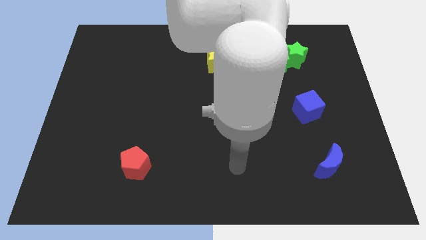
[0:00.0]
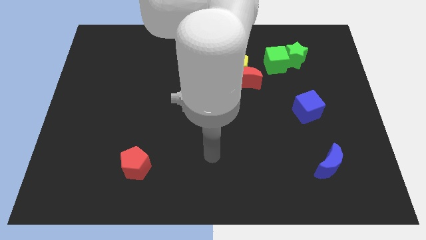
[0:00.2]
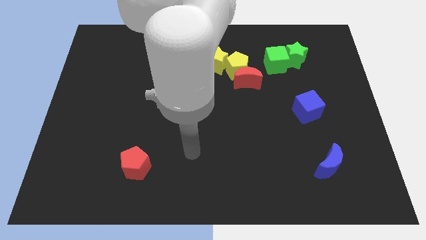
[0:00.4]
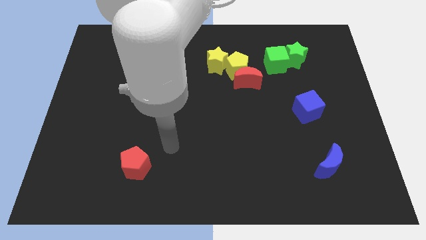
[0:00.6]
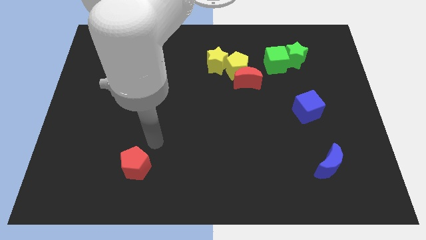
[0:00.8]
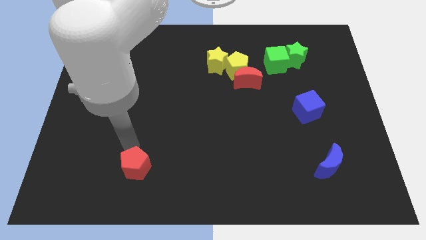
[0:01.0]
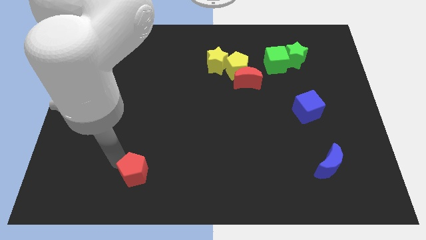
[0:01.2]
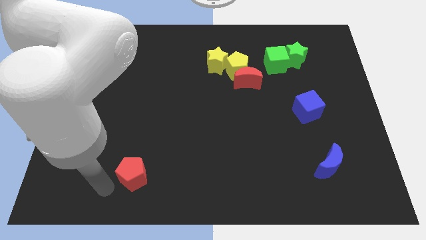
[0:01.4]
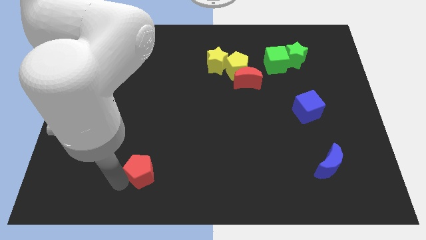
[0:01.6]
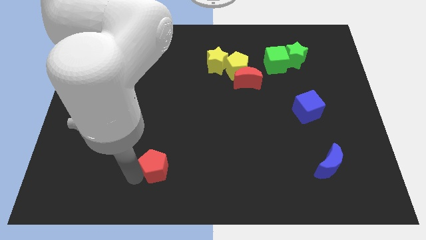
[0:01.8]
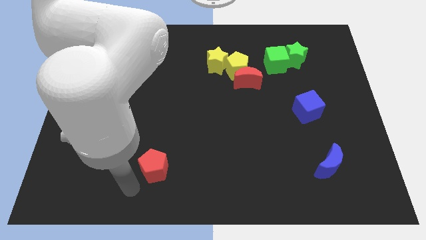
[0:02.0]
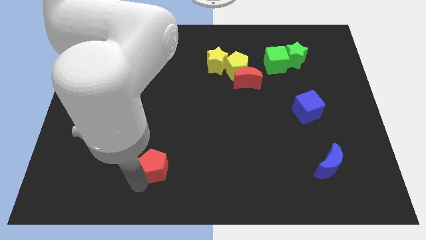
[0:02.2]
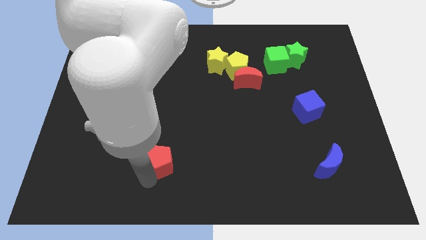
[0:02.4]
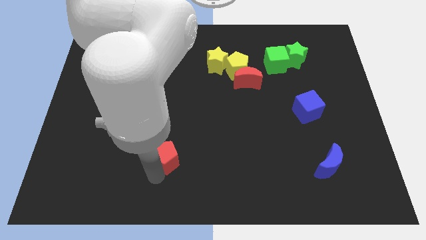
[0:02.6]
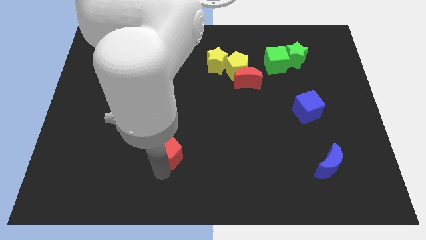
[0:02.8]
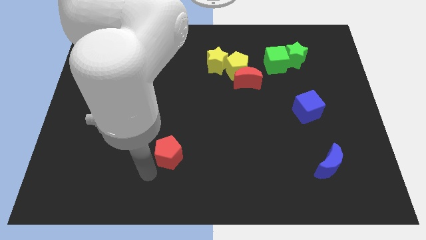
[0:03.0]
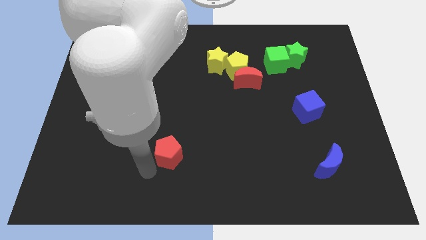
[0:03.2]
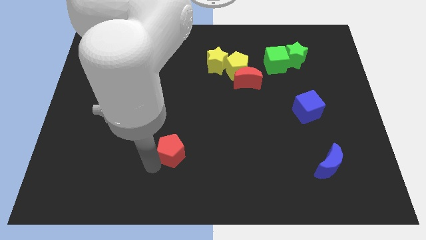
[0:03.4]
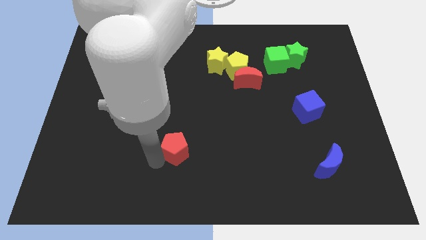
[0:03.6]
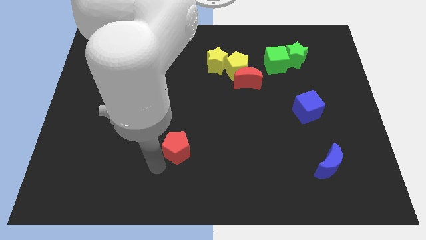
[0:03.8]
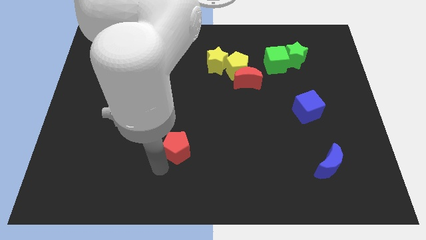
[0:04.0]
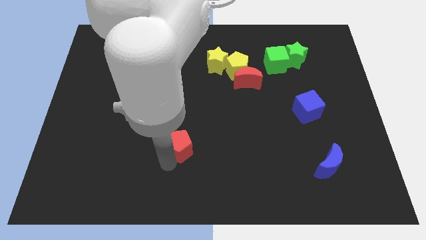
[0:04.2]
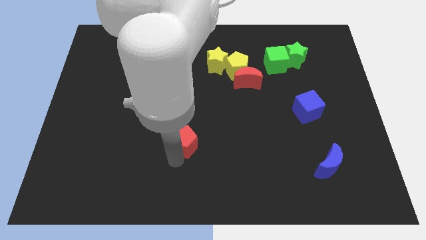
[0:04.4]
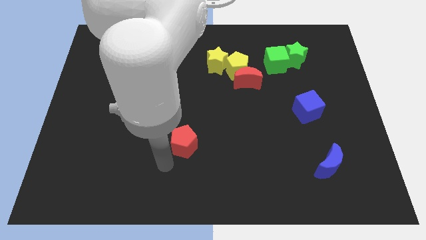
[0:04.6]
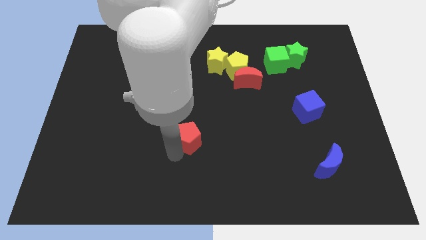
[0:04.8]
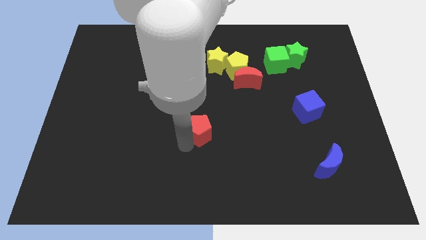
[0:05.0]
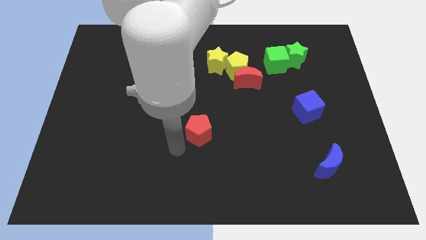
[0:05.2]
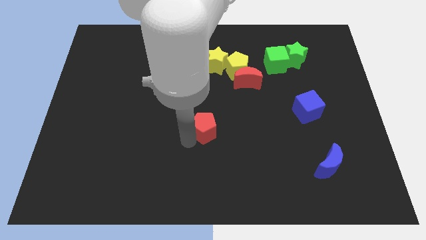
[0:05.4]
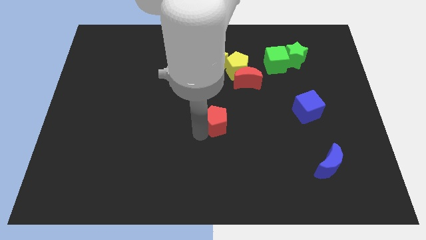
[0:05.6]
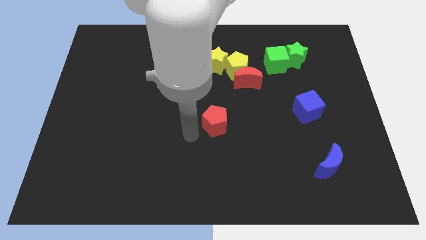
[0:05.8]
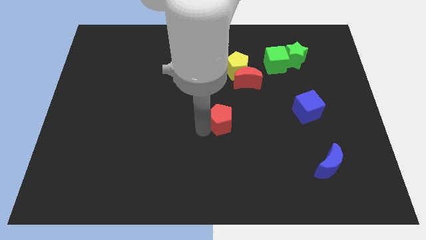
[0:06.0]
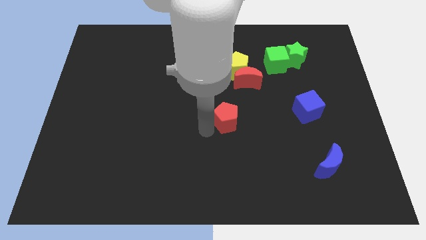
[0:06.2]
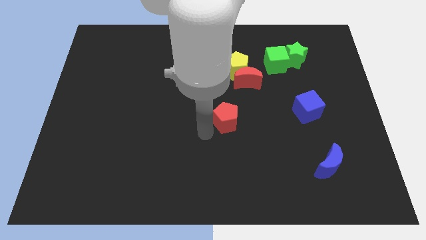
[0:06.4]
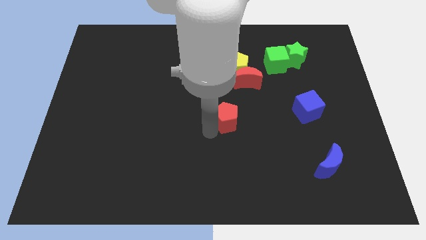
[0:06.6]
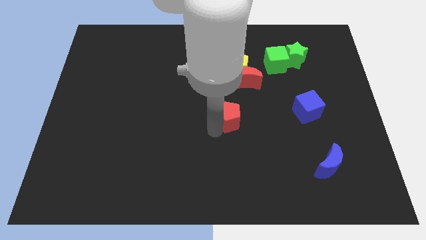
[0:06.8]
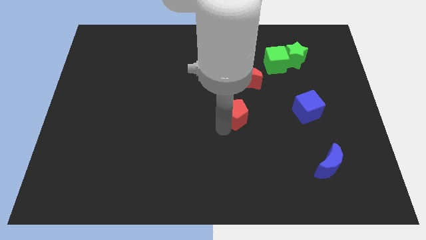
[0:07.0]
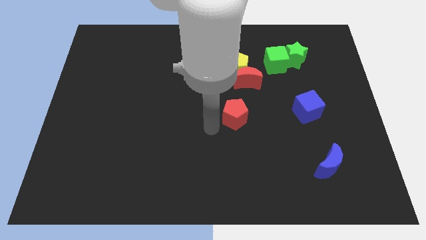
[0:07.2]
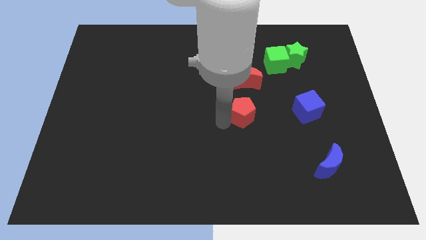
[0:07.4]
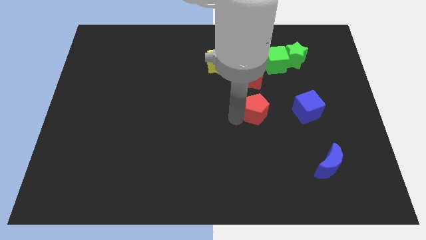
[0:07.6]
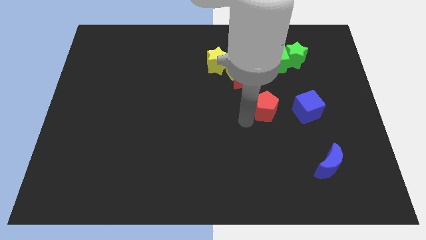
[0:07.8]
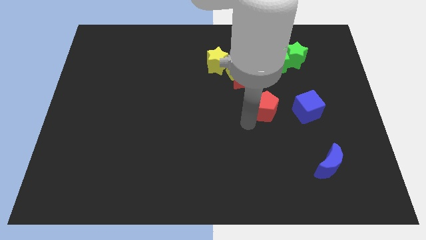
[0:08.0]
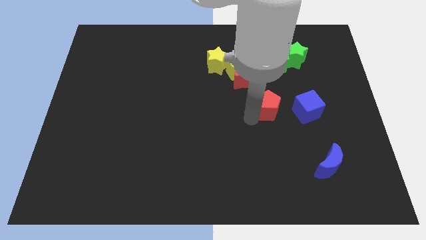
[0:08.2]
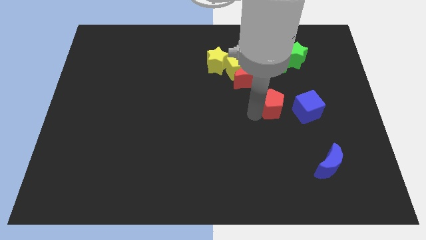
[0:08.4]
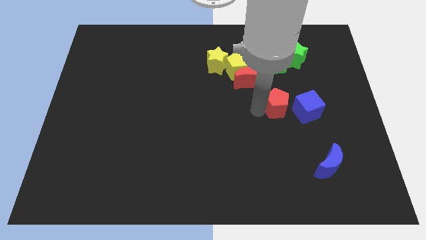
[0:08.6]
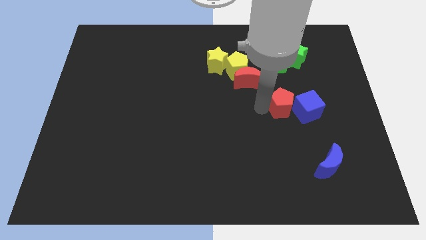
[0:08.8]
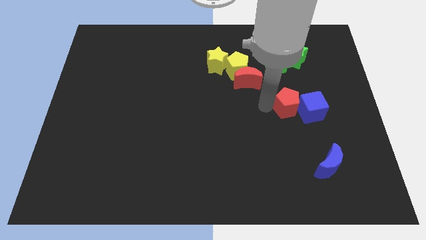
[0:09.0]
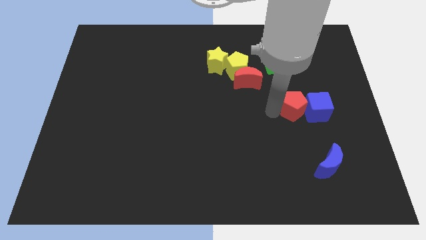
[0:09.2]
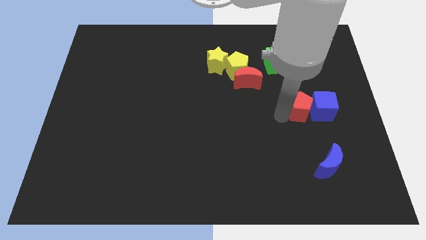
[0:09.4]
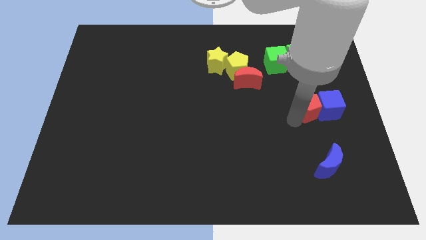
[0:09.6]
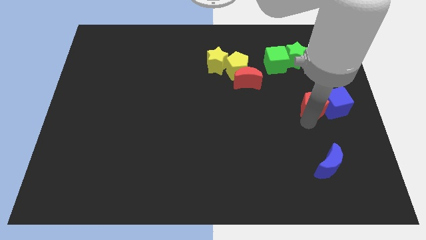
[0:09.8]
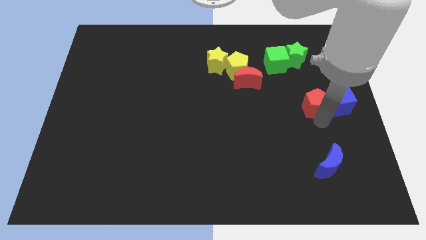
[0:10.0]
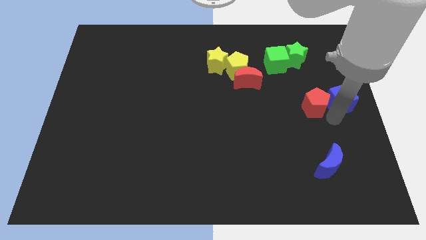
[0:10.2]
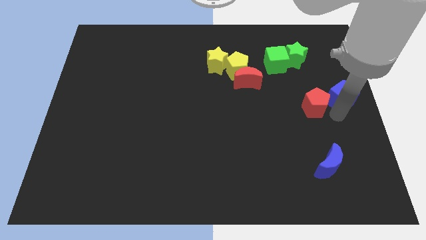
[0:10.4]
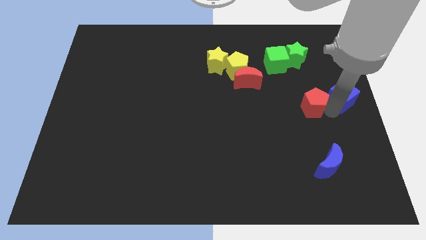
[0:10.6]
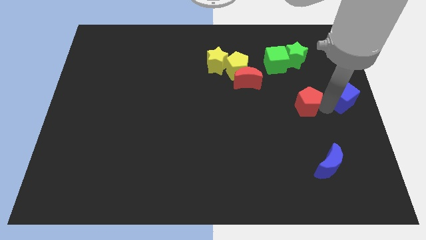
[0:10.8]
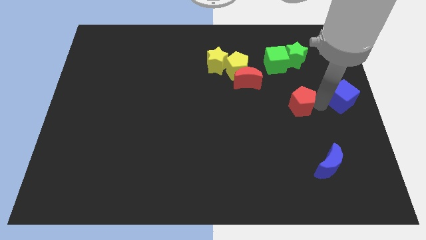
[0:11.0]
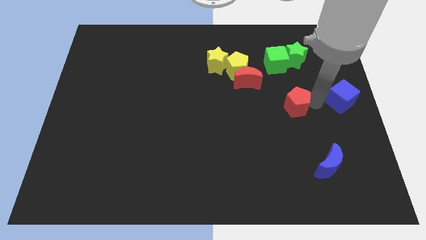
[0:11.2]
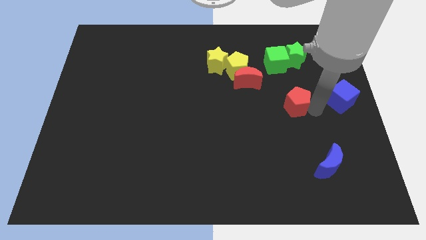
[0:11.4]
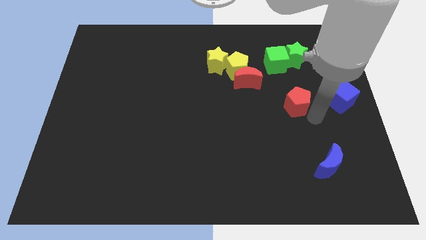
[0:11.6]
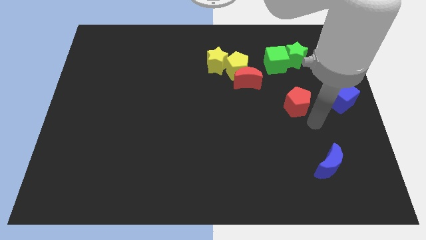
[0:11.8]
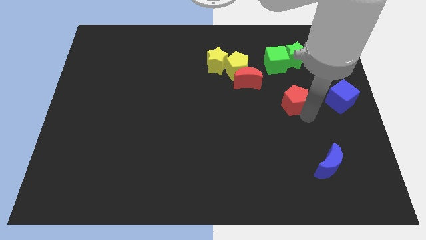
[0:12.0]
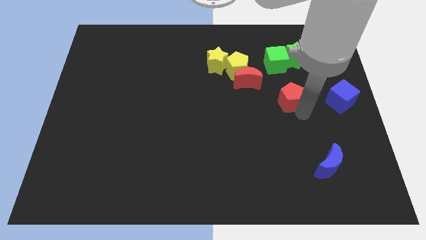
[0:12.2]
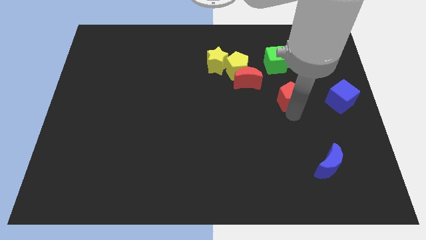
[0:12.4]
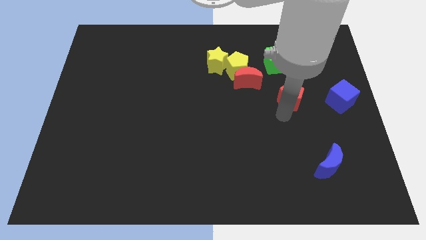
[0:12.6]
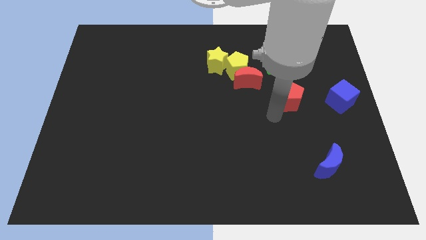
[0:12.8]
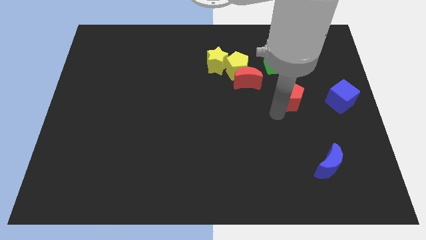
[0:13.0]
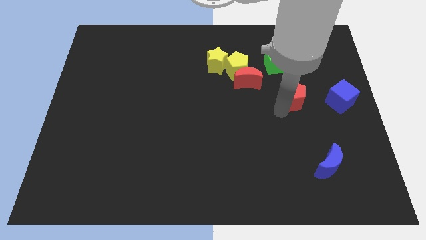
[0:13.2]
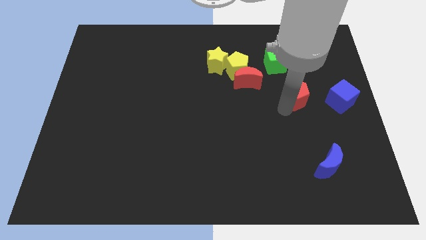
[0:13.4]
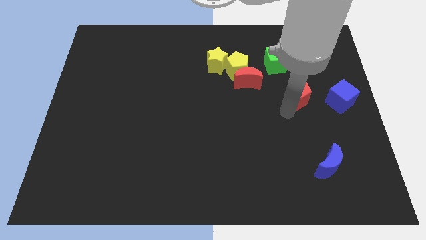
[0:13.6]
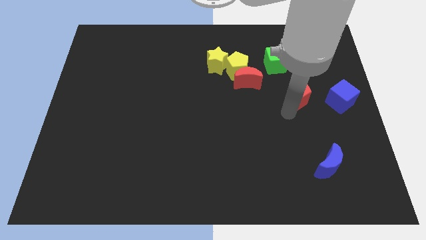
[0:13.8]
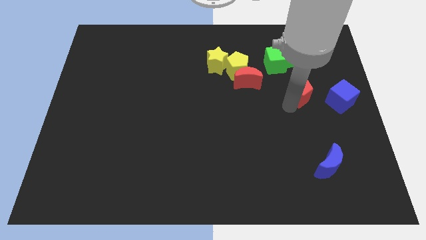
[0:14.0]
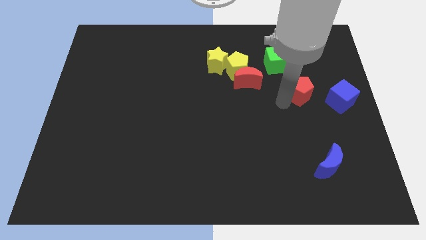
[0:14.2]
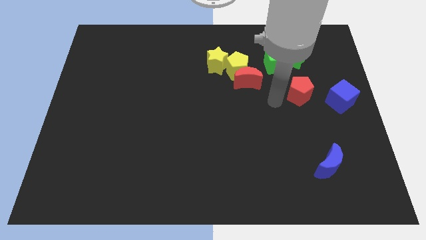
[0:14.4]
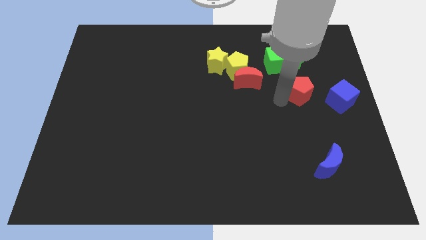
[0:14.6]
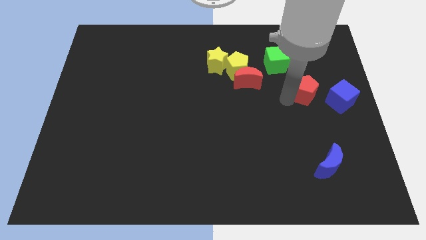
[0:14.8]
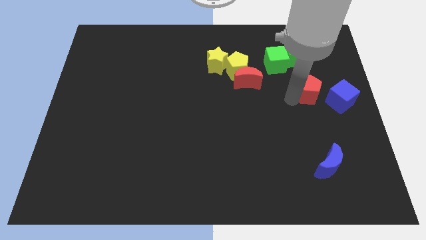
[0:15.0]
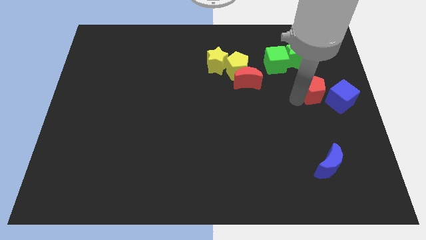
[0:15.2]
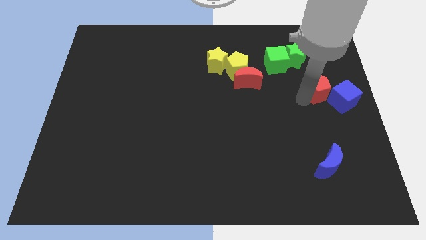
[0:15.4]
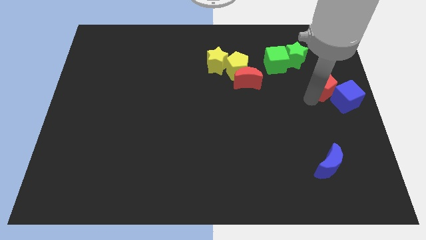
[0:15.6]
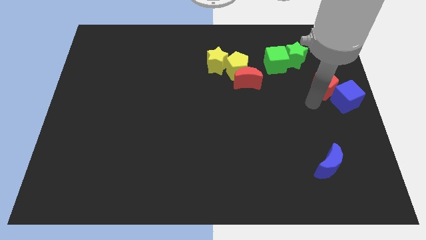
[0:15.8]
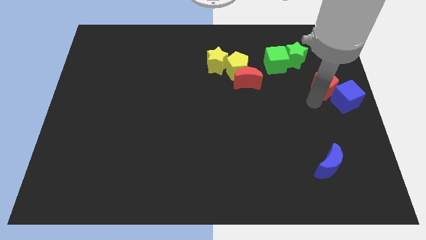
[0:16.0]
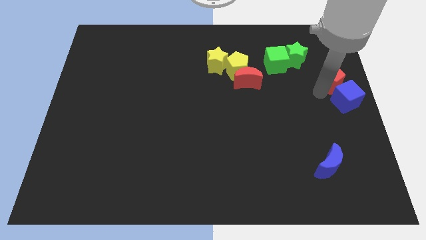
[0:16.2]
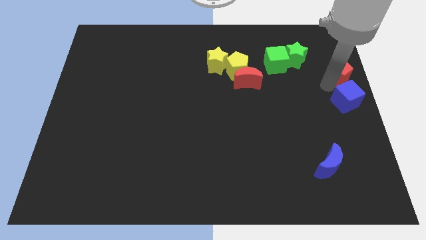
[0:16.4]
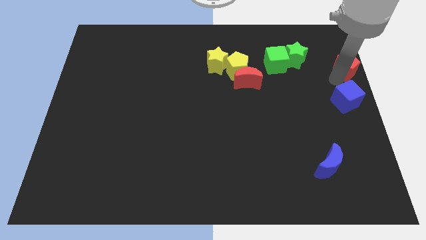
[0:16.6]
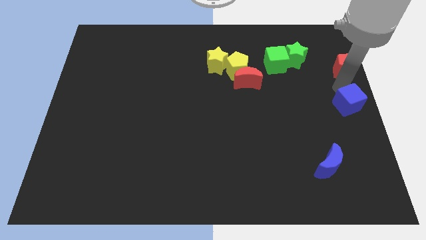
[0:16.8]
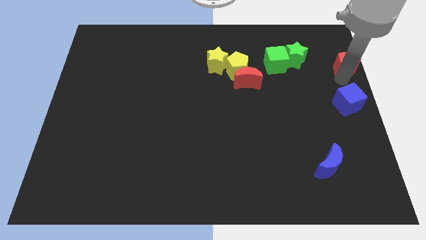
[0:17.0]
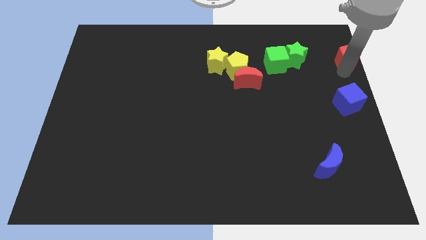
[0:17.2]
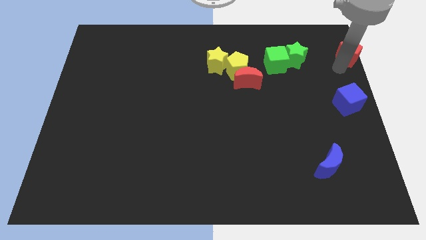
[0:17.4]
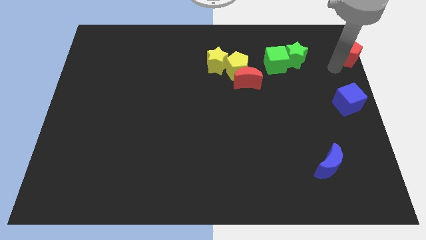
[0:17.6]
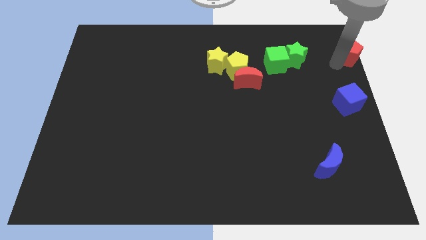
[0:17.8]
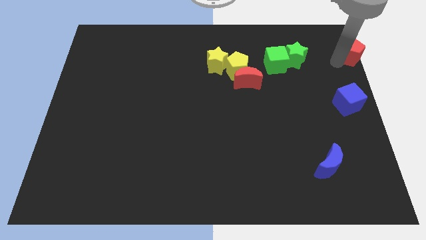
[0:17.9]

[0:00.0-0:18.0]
slide the red pentagon to the top right of the board
